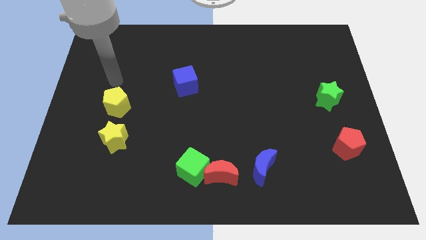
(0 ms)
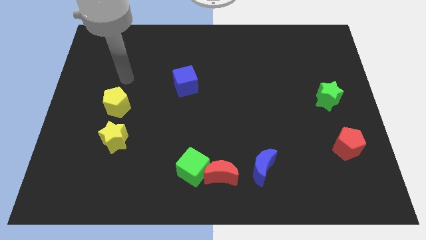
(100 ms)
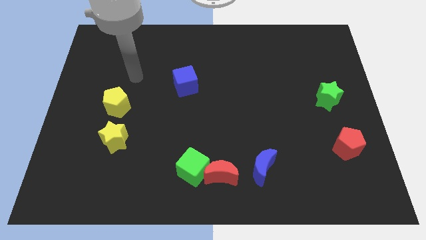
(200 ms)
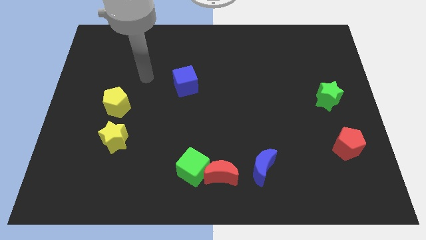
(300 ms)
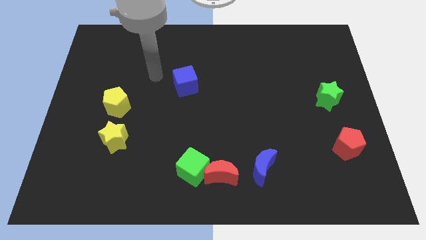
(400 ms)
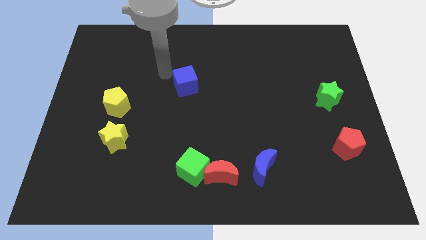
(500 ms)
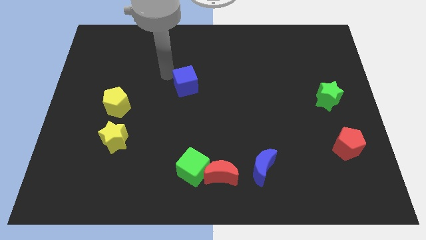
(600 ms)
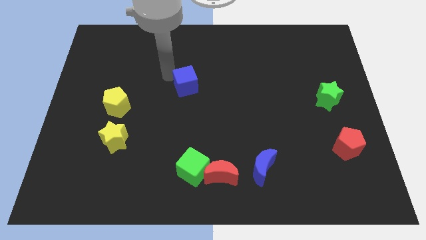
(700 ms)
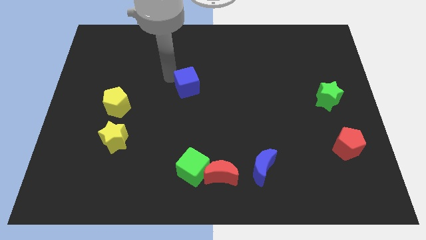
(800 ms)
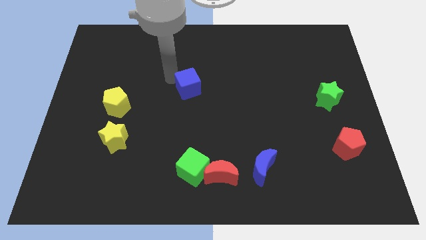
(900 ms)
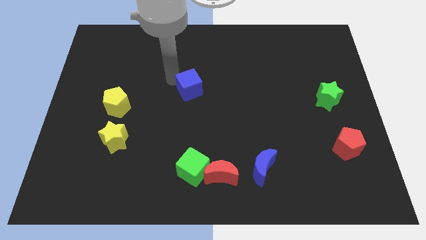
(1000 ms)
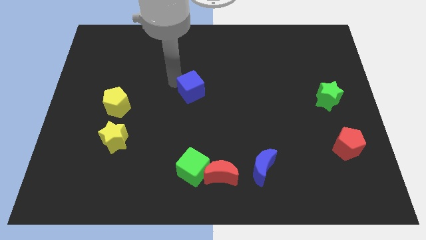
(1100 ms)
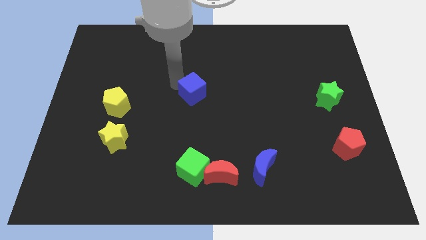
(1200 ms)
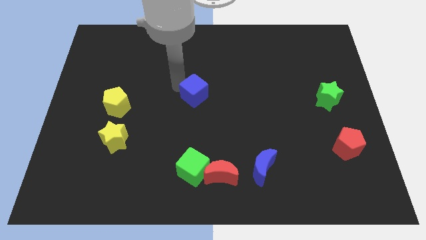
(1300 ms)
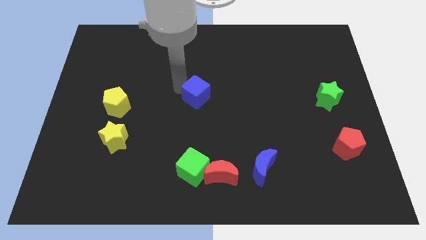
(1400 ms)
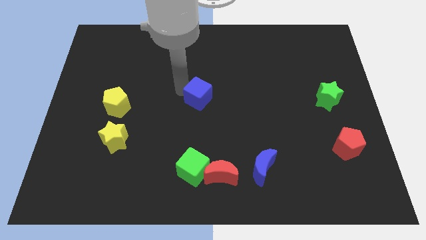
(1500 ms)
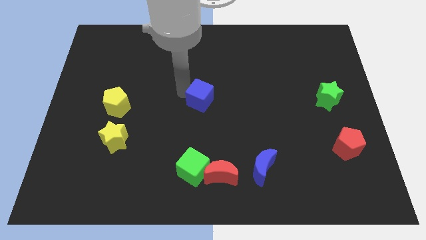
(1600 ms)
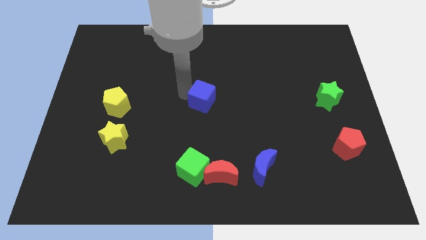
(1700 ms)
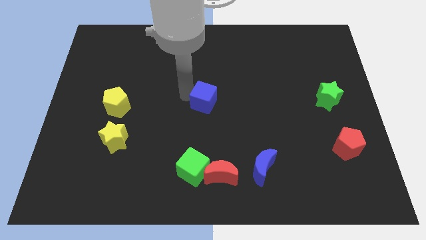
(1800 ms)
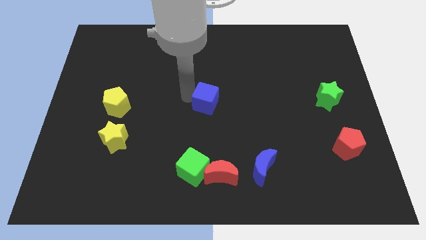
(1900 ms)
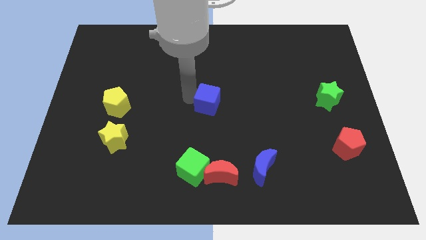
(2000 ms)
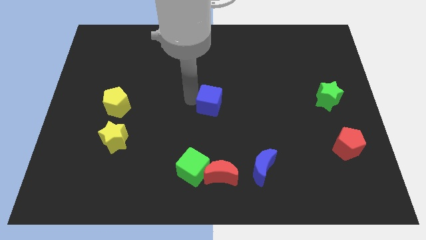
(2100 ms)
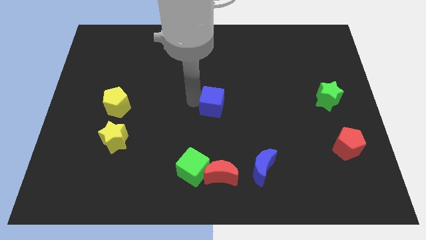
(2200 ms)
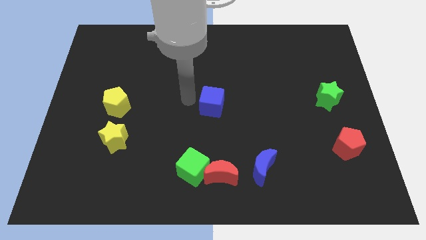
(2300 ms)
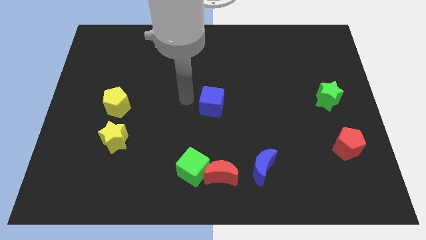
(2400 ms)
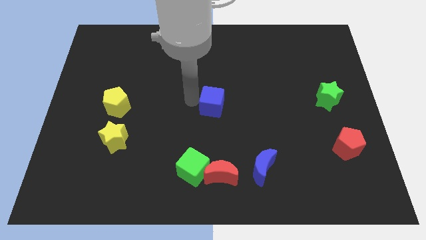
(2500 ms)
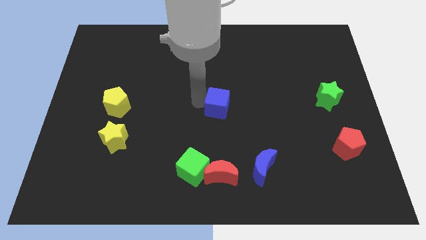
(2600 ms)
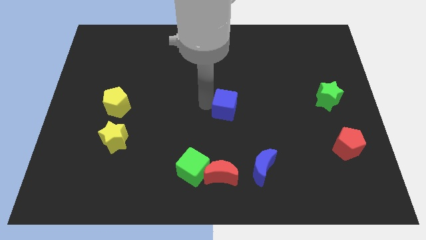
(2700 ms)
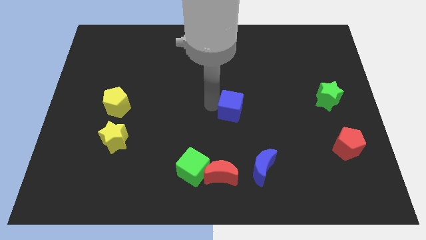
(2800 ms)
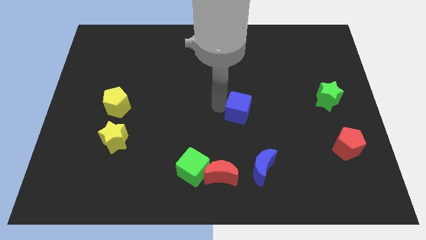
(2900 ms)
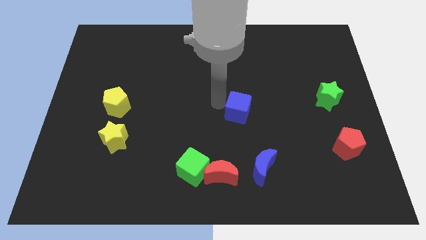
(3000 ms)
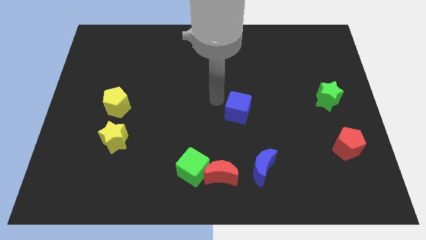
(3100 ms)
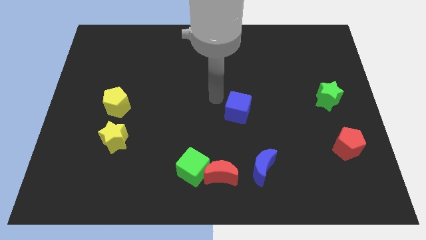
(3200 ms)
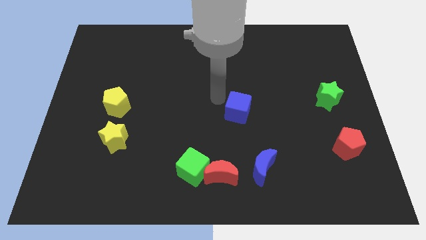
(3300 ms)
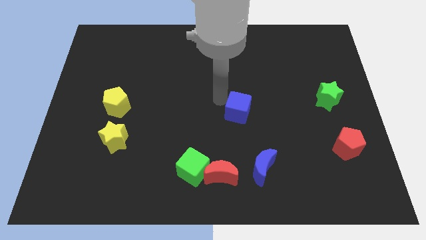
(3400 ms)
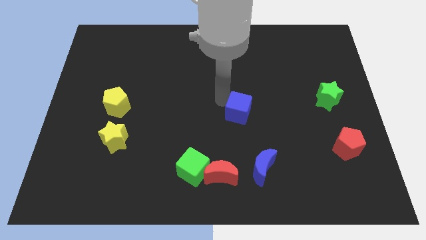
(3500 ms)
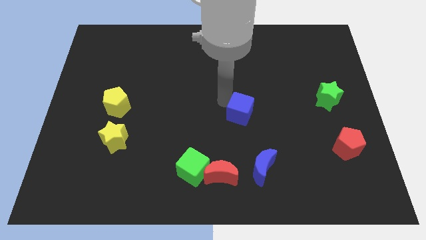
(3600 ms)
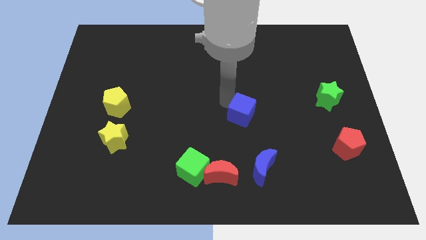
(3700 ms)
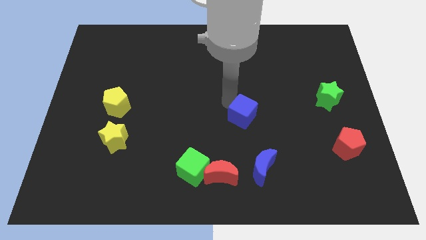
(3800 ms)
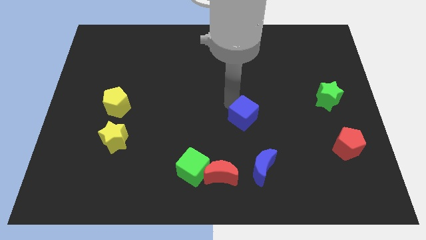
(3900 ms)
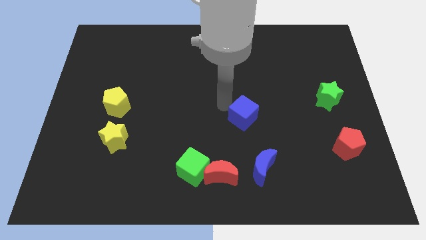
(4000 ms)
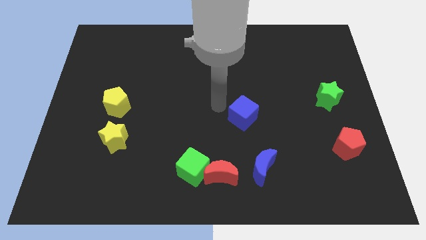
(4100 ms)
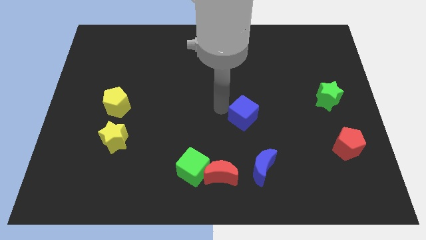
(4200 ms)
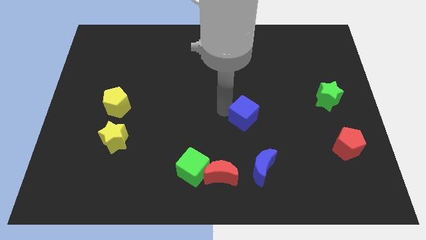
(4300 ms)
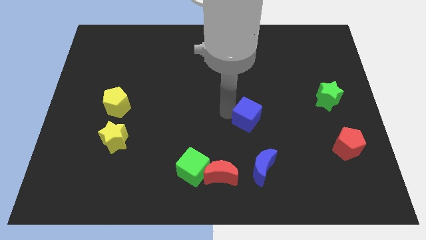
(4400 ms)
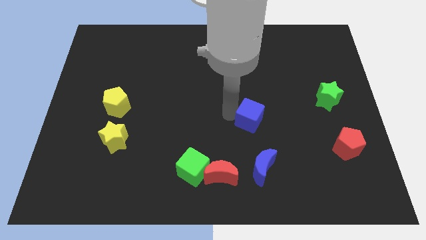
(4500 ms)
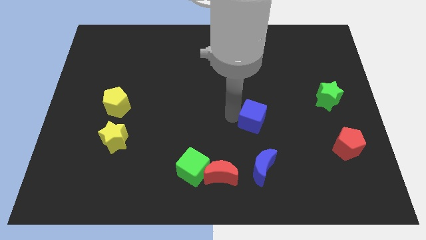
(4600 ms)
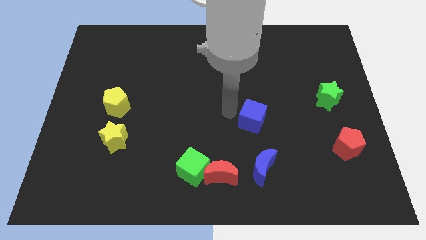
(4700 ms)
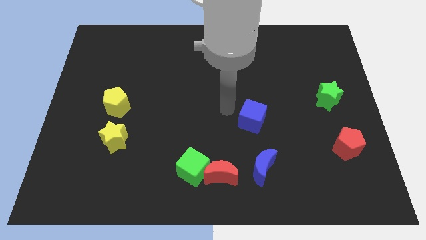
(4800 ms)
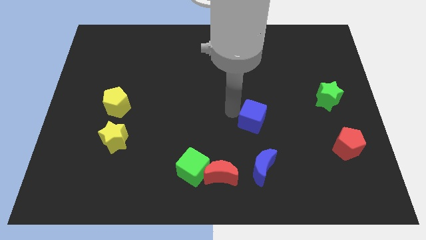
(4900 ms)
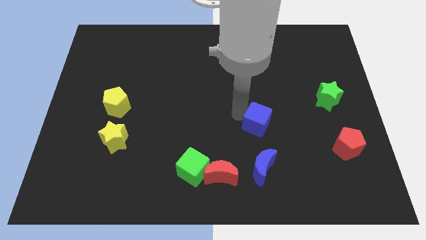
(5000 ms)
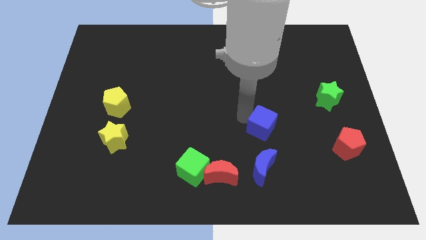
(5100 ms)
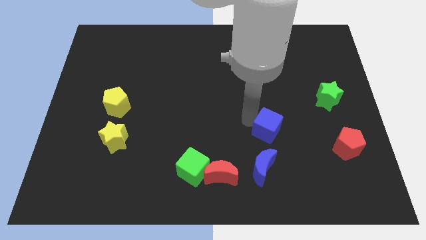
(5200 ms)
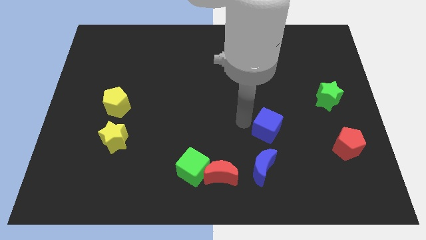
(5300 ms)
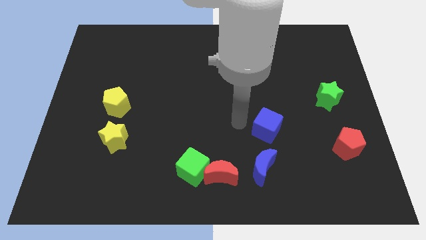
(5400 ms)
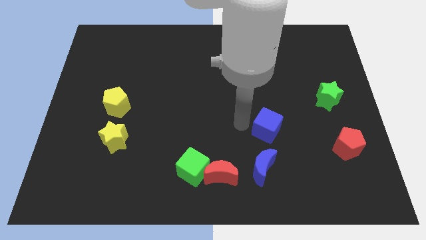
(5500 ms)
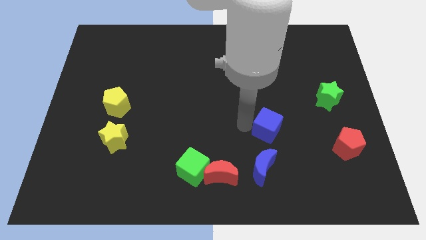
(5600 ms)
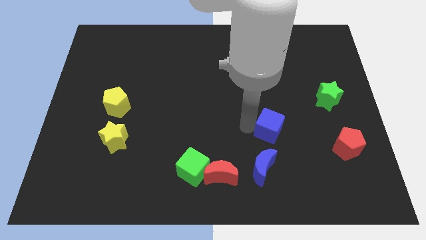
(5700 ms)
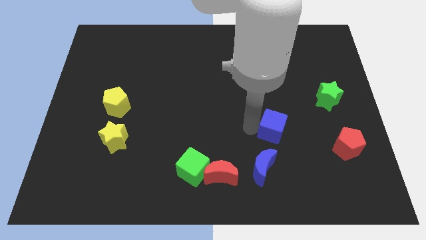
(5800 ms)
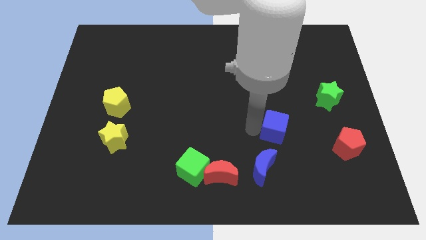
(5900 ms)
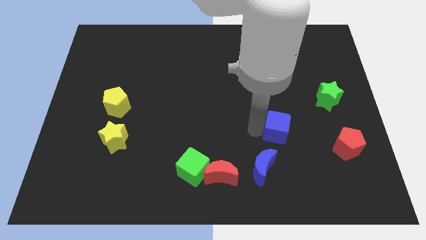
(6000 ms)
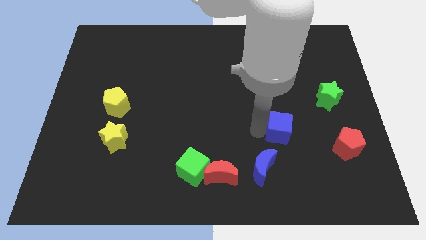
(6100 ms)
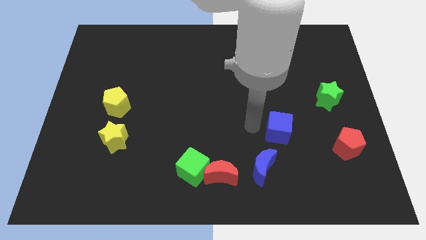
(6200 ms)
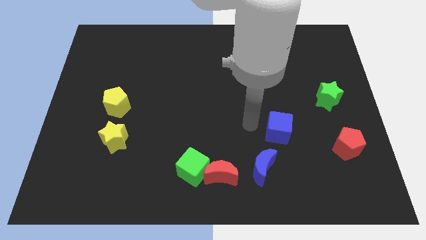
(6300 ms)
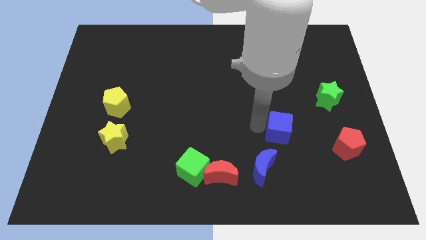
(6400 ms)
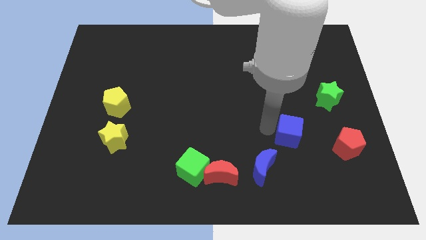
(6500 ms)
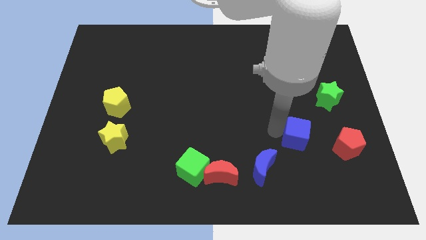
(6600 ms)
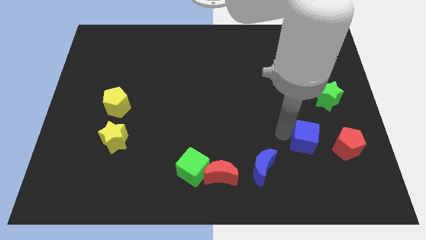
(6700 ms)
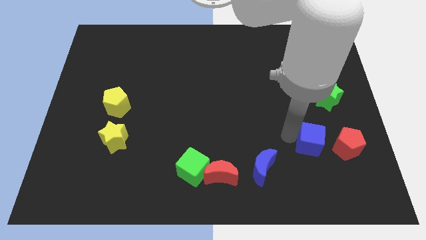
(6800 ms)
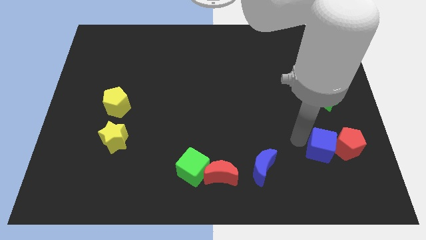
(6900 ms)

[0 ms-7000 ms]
slide the blue cube close to the red pentagon

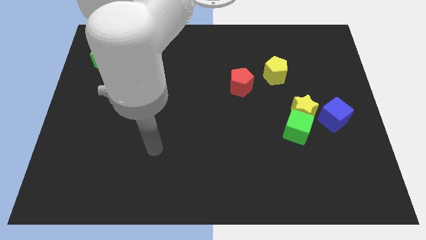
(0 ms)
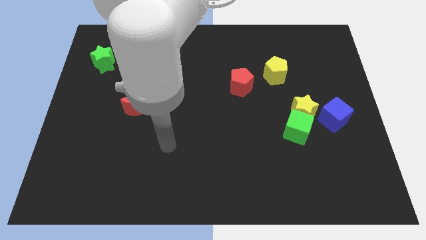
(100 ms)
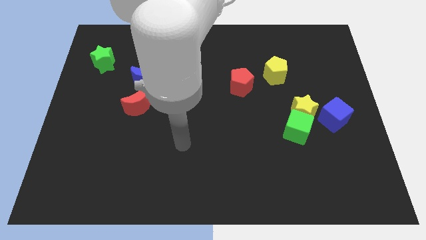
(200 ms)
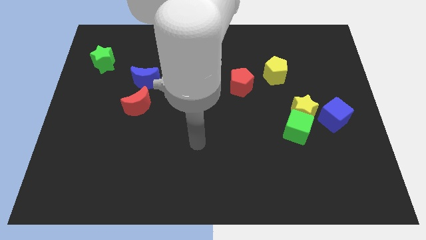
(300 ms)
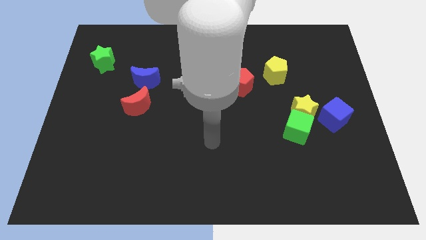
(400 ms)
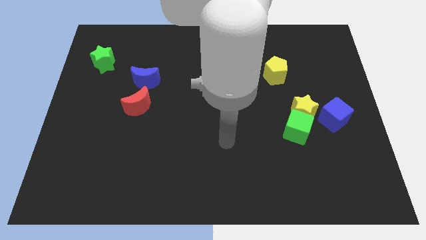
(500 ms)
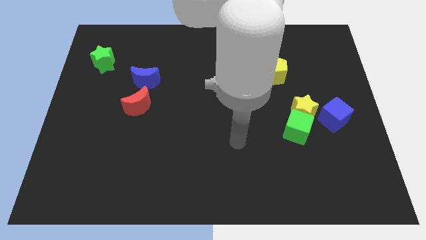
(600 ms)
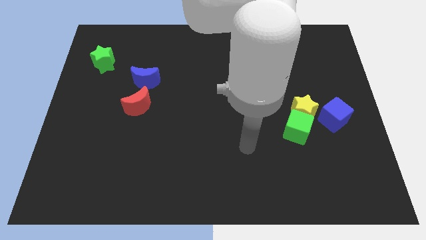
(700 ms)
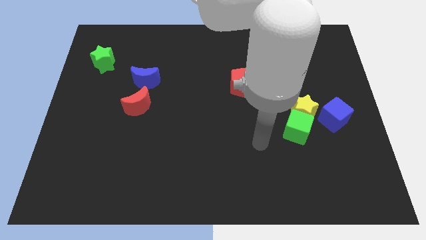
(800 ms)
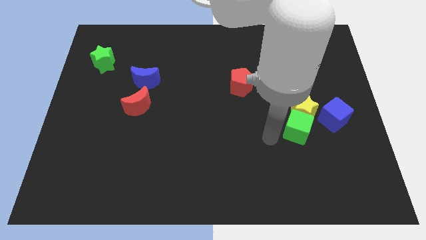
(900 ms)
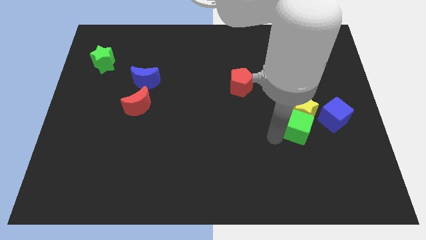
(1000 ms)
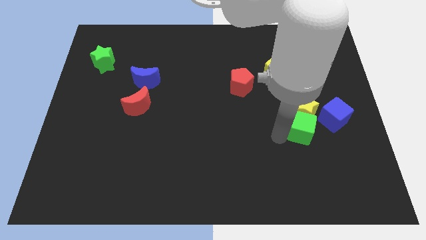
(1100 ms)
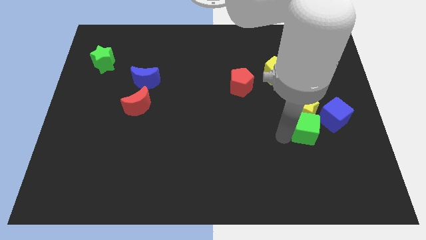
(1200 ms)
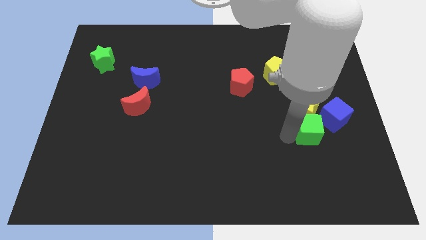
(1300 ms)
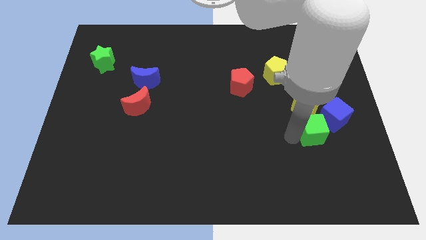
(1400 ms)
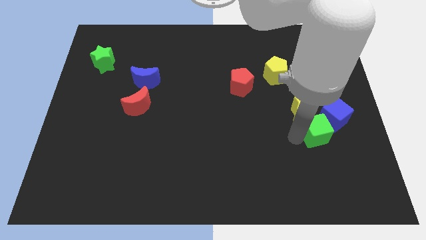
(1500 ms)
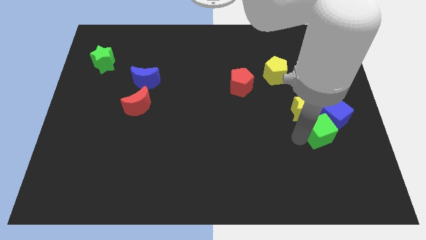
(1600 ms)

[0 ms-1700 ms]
move the green cube towards the blue cube
